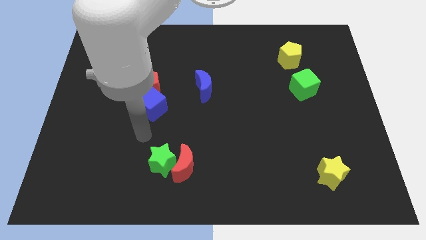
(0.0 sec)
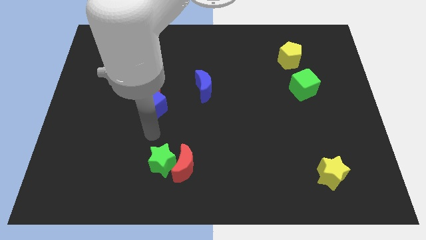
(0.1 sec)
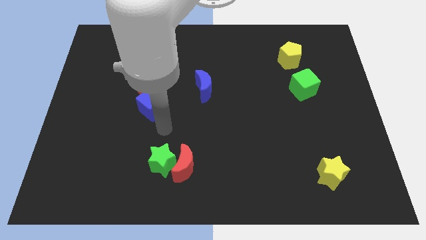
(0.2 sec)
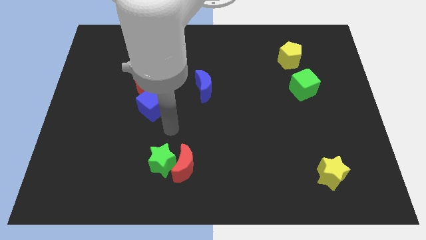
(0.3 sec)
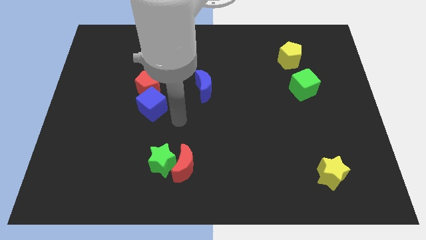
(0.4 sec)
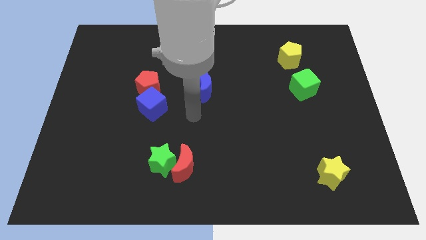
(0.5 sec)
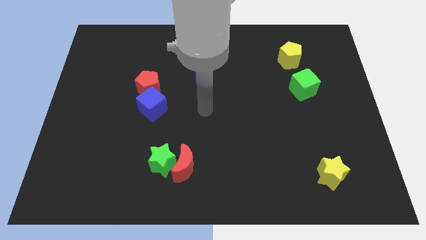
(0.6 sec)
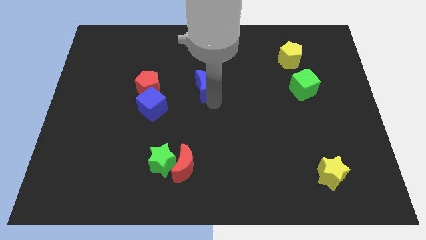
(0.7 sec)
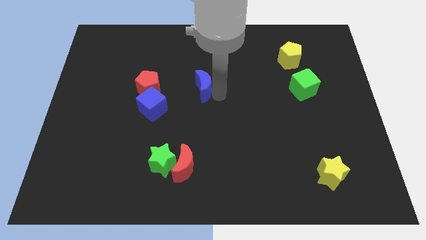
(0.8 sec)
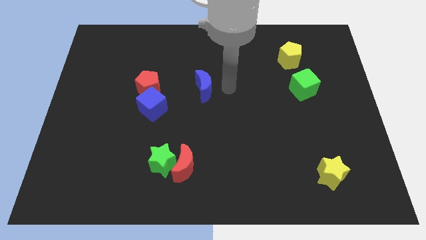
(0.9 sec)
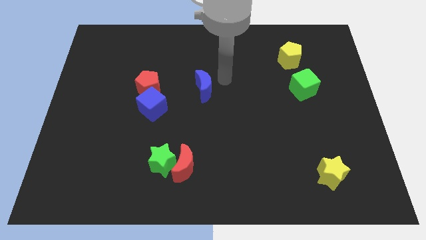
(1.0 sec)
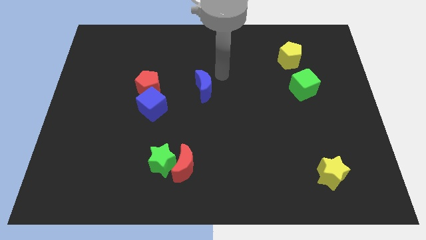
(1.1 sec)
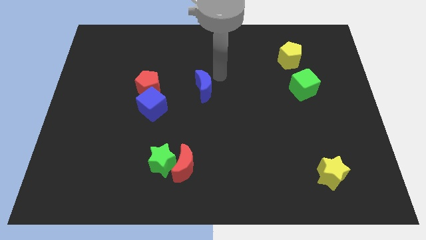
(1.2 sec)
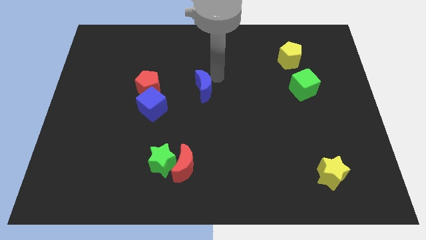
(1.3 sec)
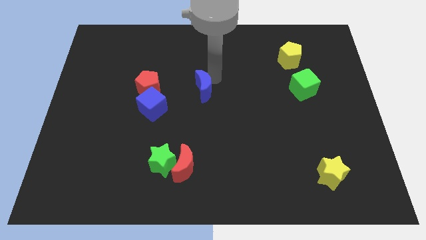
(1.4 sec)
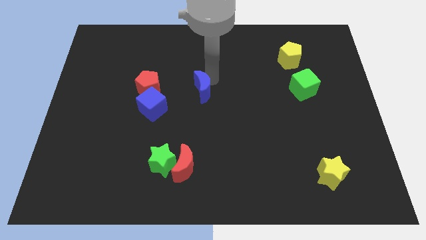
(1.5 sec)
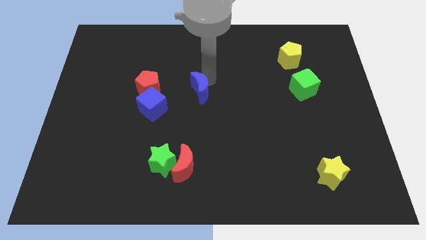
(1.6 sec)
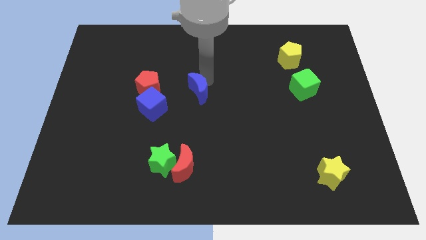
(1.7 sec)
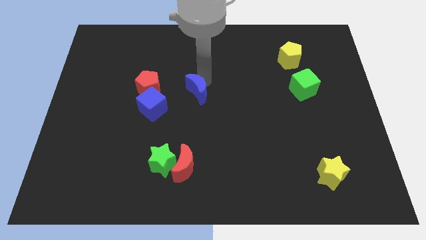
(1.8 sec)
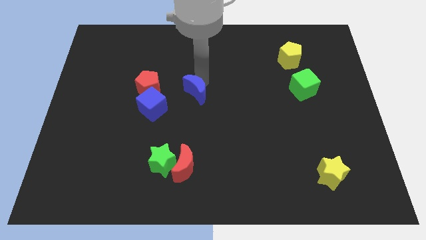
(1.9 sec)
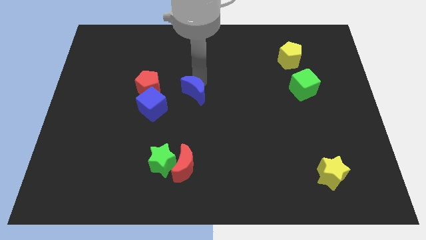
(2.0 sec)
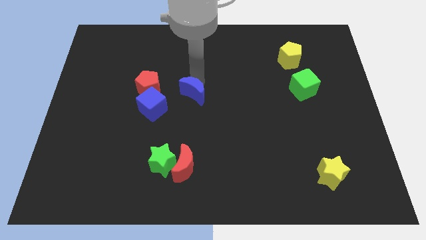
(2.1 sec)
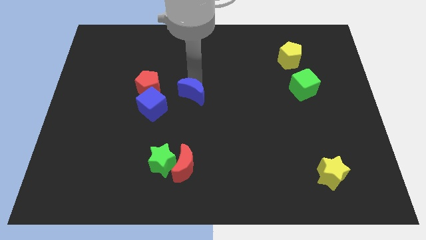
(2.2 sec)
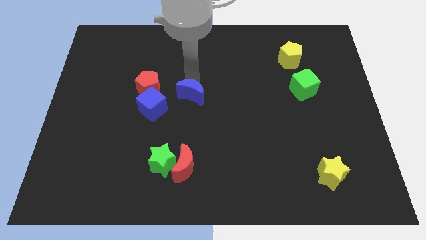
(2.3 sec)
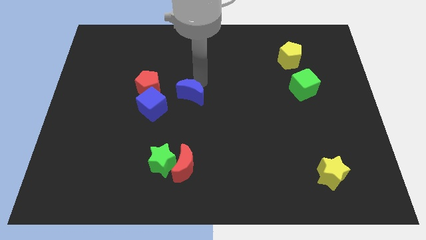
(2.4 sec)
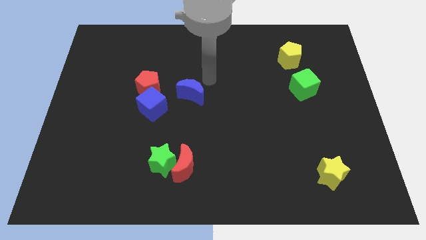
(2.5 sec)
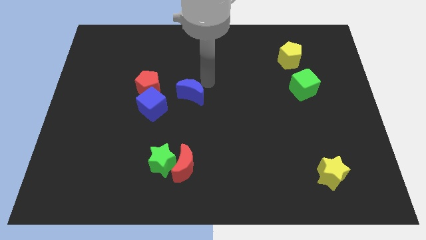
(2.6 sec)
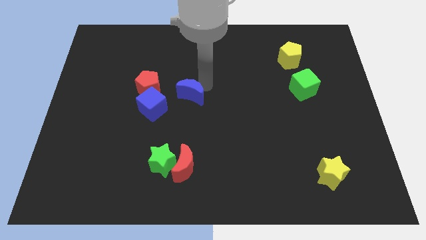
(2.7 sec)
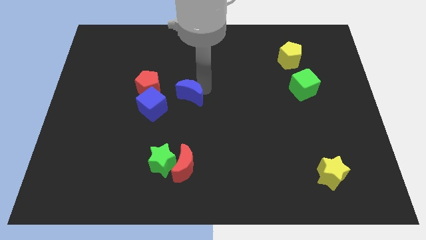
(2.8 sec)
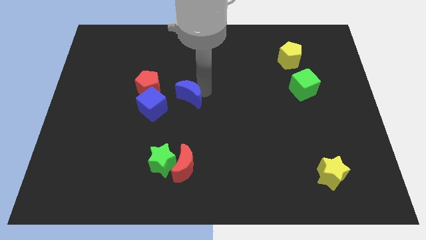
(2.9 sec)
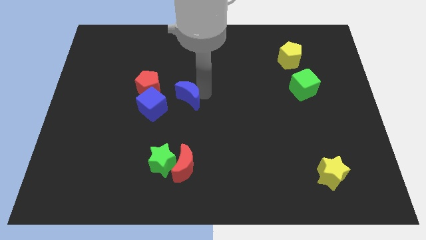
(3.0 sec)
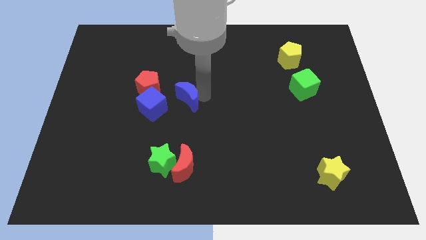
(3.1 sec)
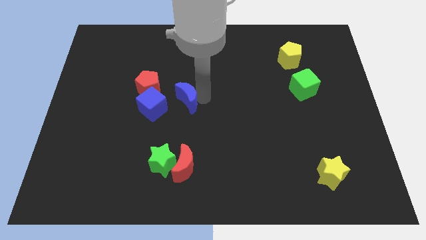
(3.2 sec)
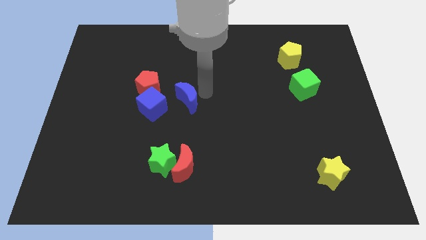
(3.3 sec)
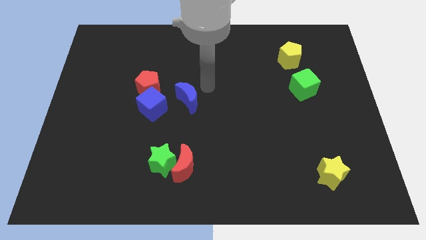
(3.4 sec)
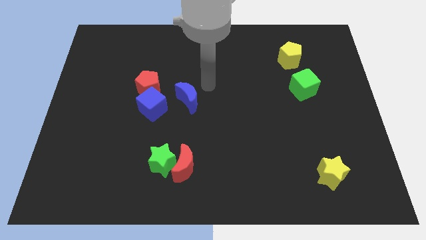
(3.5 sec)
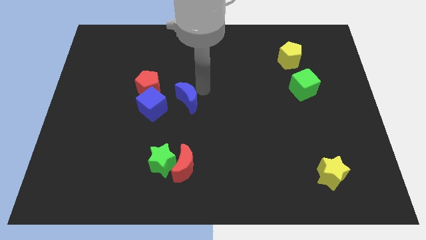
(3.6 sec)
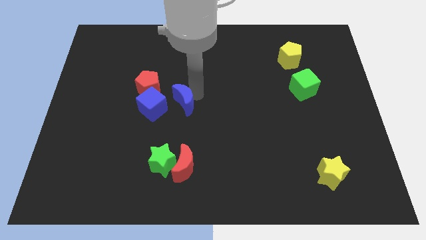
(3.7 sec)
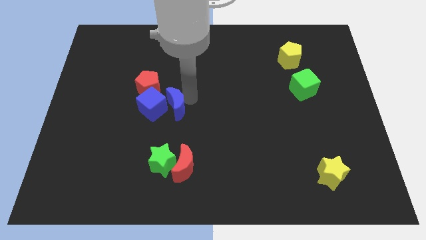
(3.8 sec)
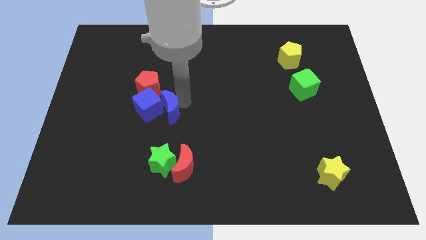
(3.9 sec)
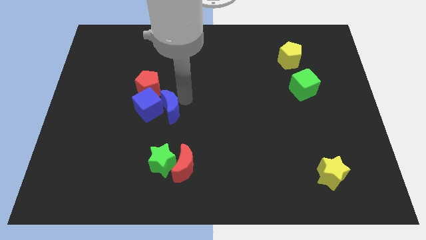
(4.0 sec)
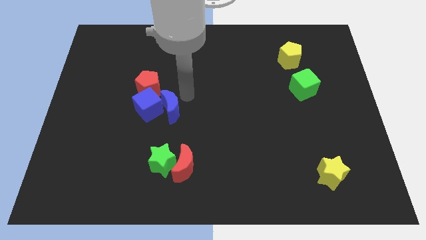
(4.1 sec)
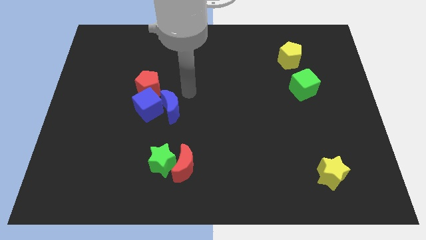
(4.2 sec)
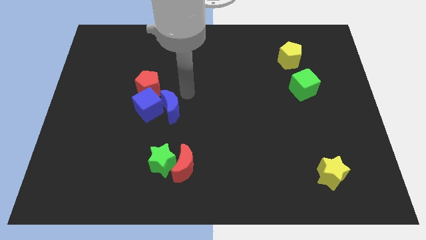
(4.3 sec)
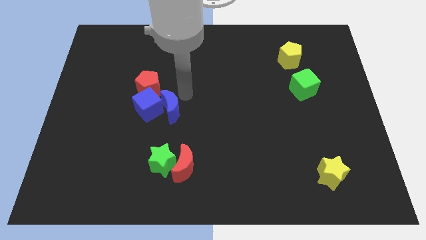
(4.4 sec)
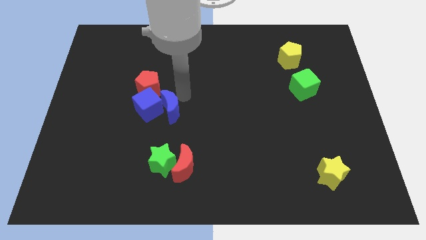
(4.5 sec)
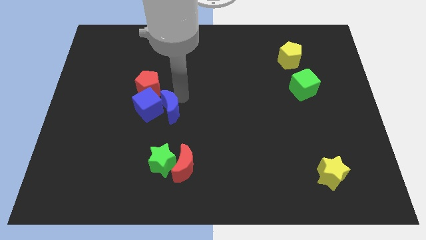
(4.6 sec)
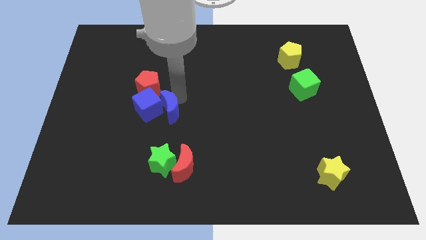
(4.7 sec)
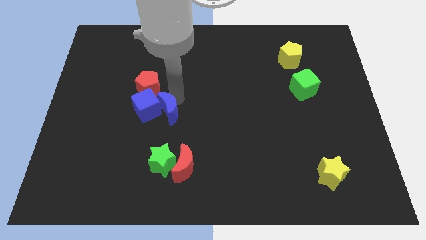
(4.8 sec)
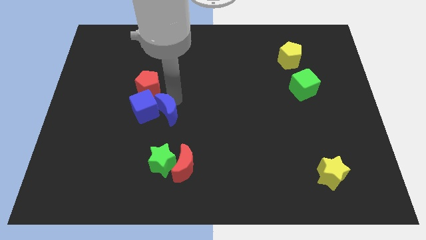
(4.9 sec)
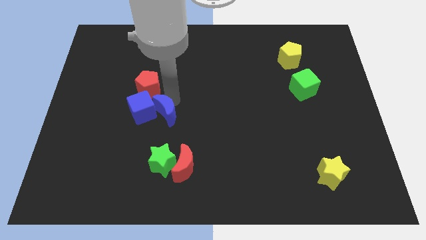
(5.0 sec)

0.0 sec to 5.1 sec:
push the blue moon to the bottom side of the red pentagon

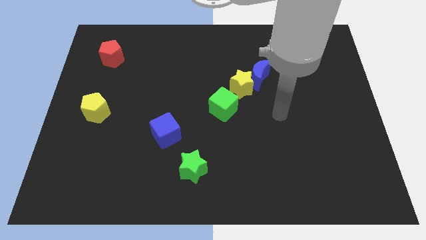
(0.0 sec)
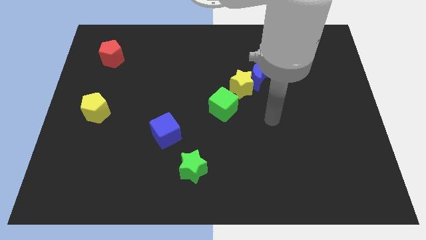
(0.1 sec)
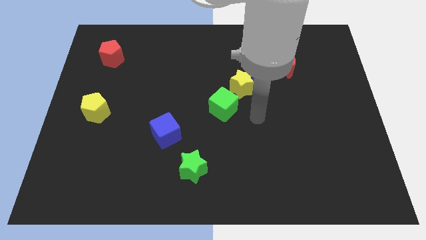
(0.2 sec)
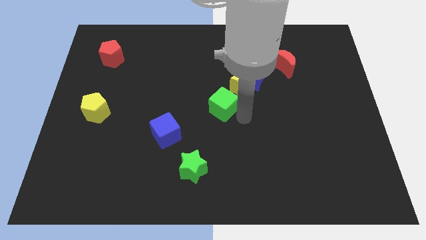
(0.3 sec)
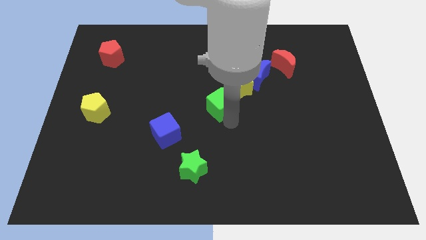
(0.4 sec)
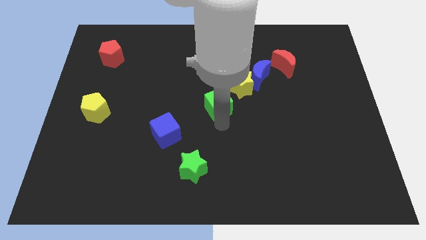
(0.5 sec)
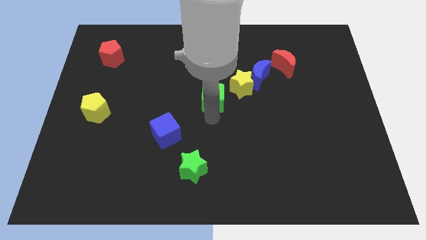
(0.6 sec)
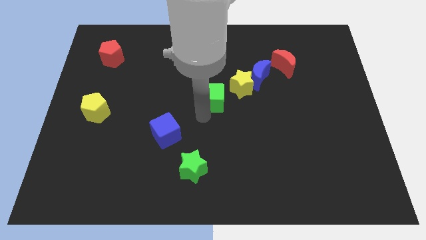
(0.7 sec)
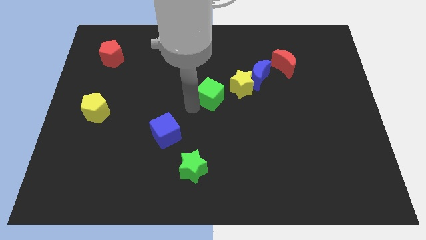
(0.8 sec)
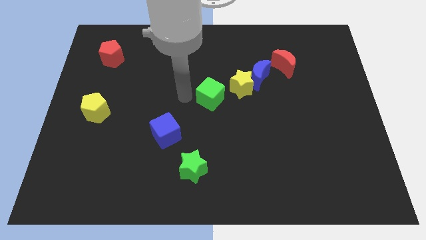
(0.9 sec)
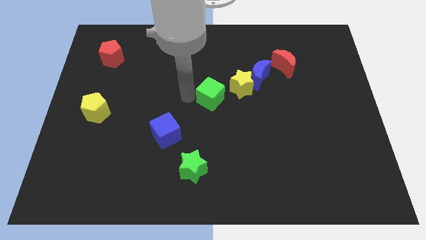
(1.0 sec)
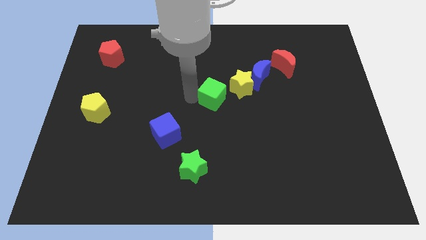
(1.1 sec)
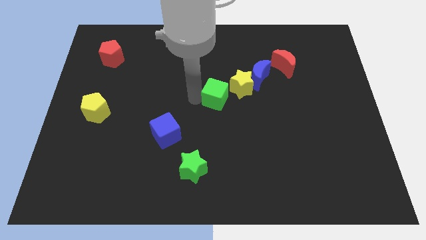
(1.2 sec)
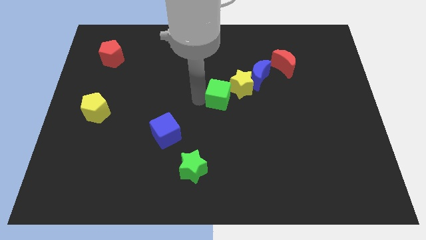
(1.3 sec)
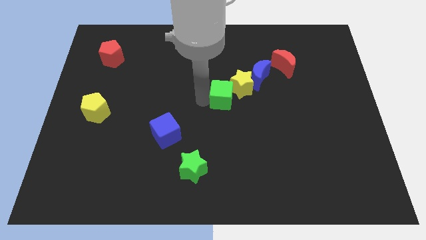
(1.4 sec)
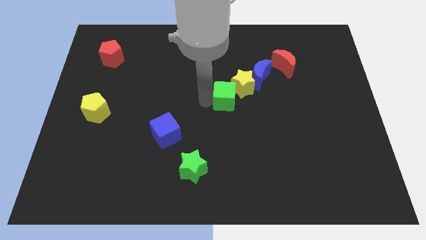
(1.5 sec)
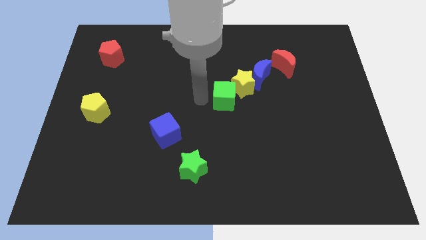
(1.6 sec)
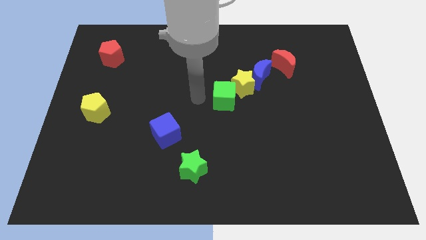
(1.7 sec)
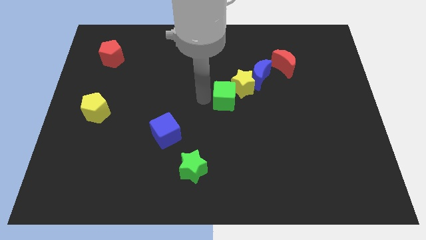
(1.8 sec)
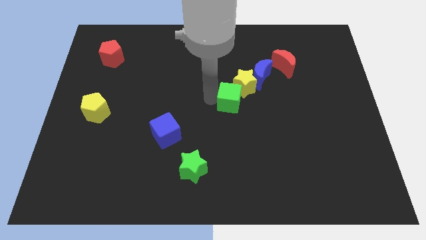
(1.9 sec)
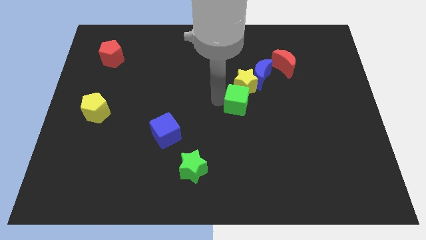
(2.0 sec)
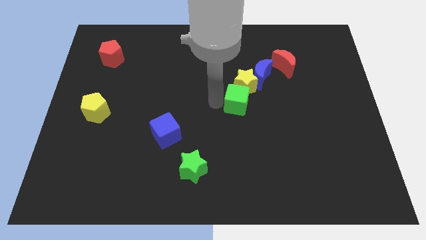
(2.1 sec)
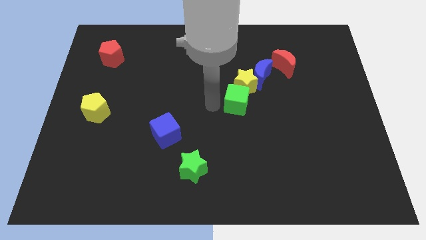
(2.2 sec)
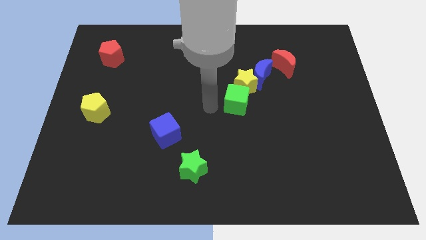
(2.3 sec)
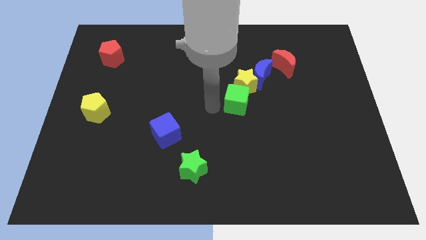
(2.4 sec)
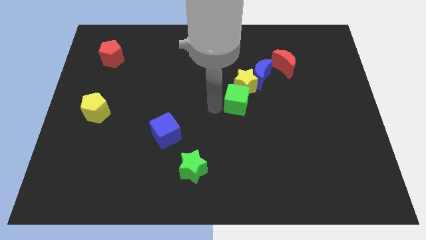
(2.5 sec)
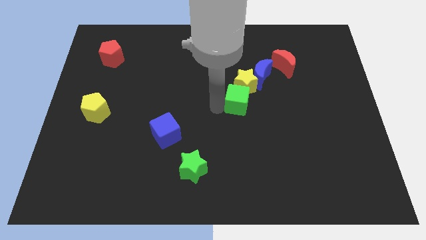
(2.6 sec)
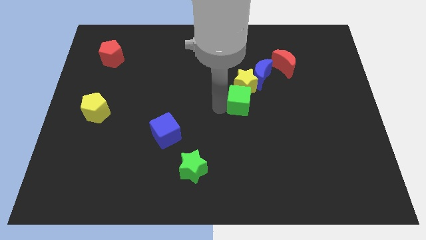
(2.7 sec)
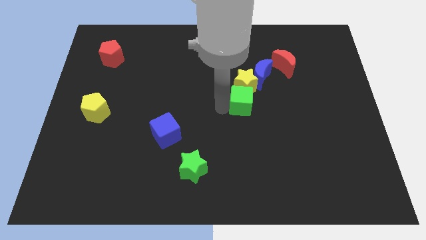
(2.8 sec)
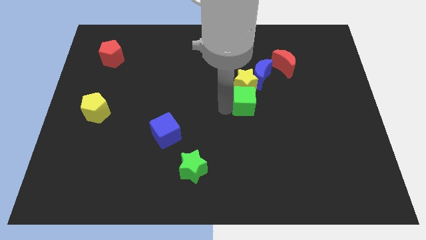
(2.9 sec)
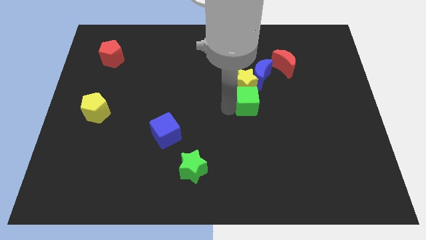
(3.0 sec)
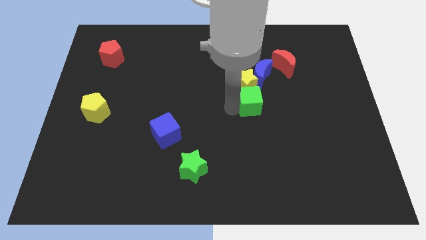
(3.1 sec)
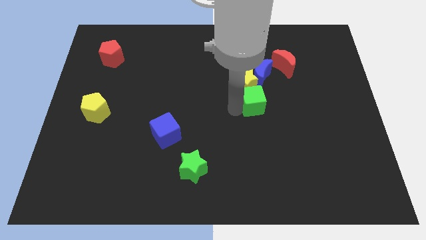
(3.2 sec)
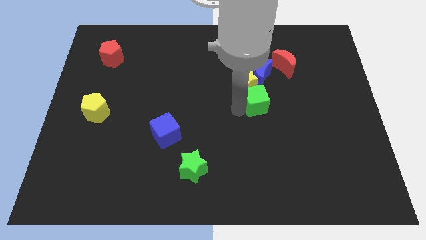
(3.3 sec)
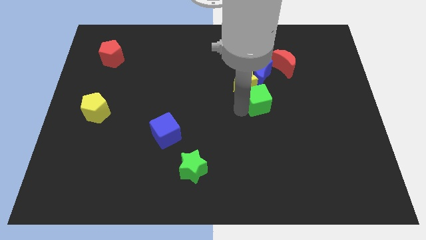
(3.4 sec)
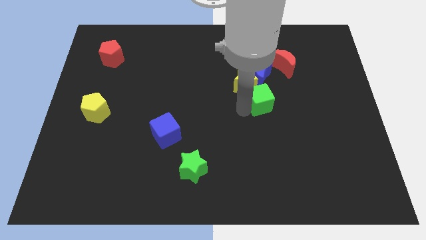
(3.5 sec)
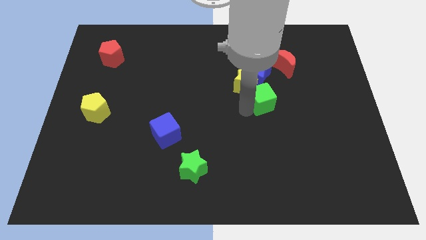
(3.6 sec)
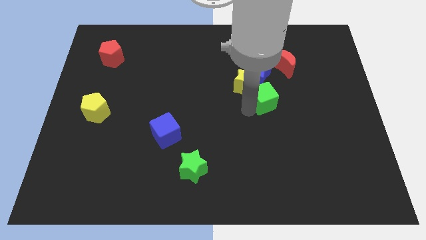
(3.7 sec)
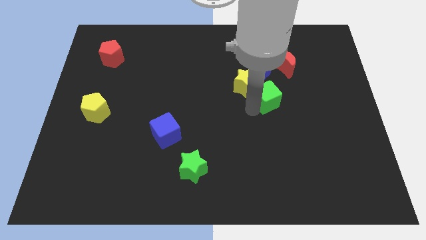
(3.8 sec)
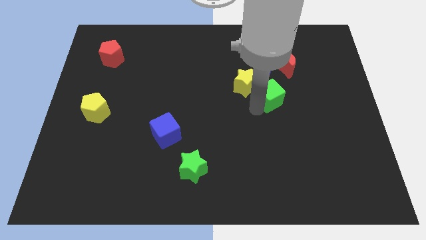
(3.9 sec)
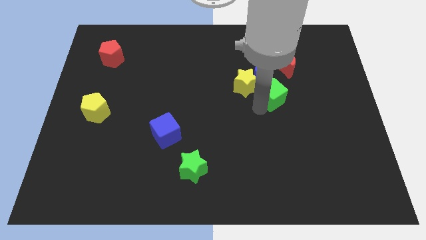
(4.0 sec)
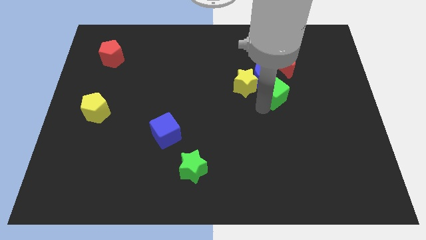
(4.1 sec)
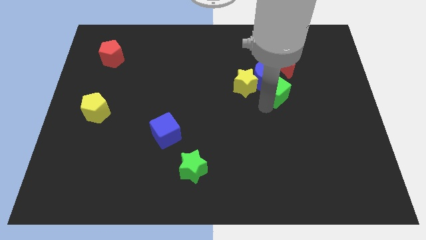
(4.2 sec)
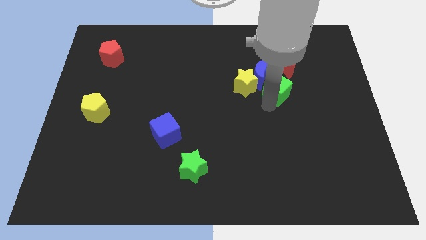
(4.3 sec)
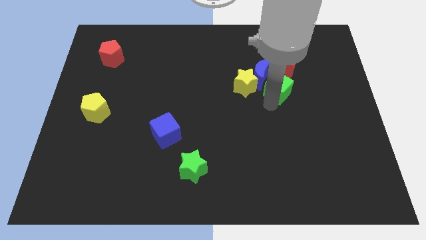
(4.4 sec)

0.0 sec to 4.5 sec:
put the green cube right of the blue moon
